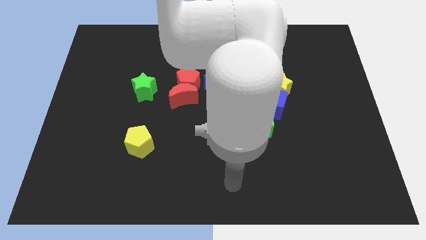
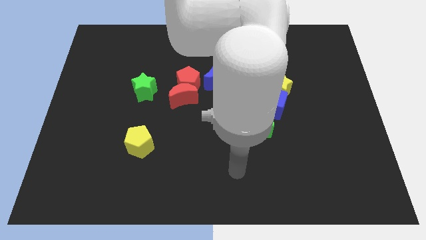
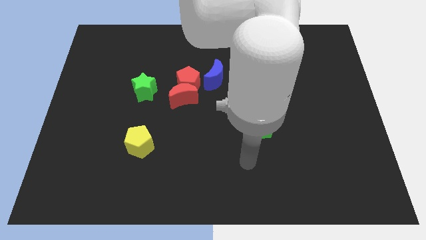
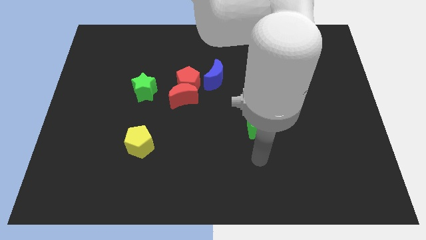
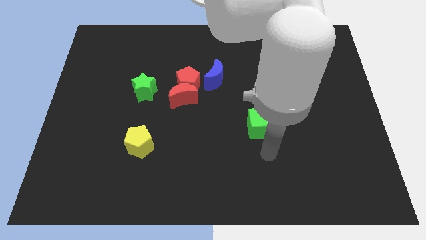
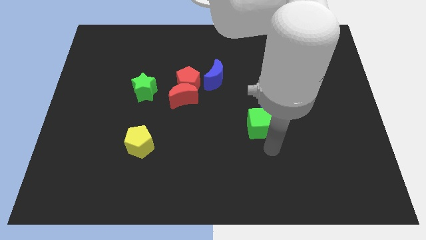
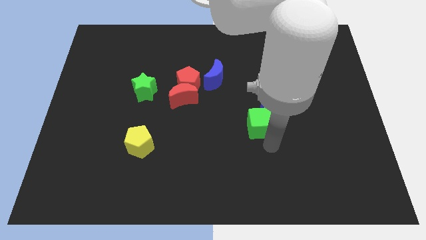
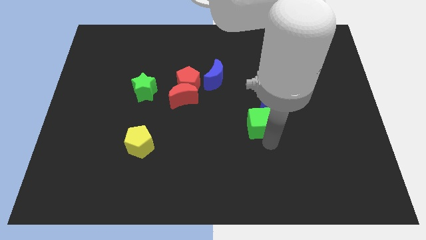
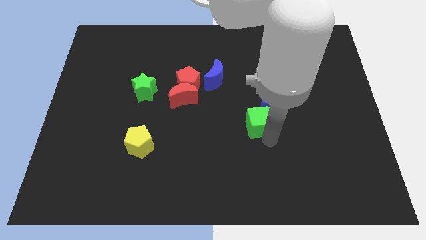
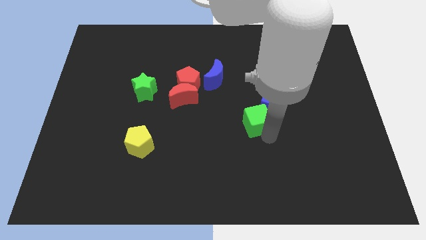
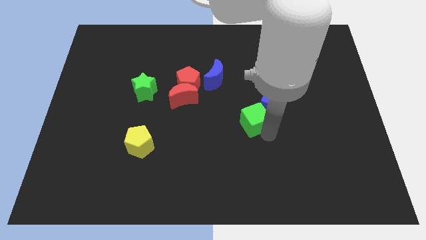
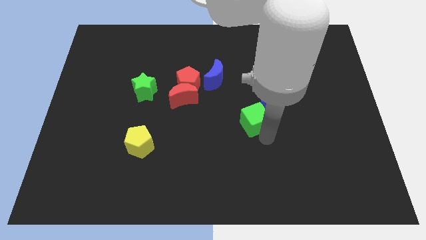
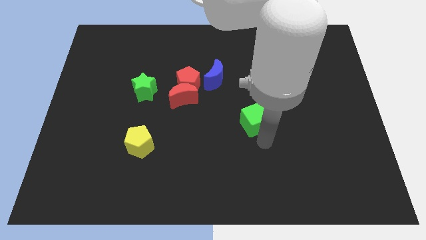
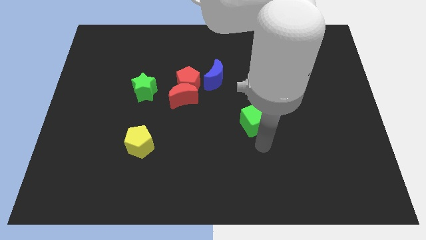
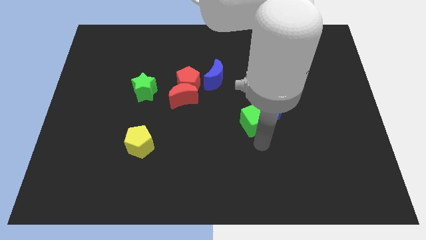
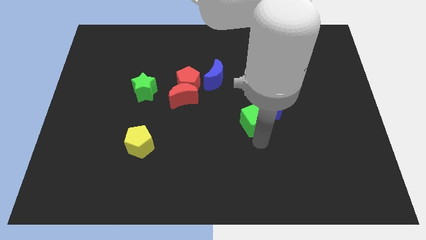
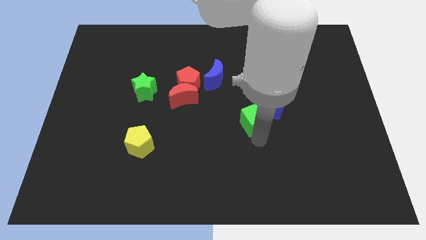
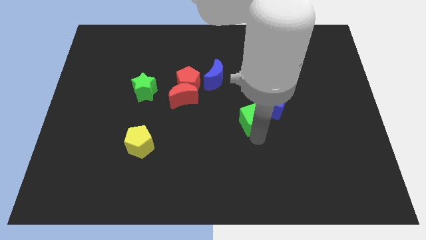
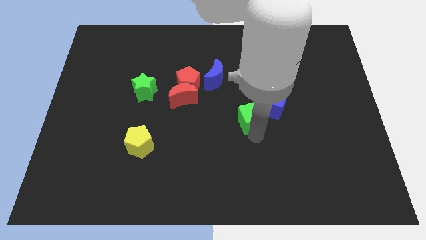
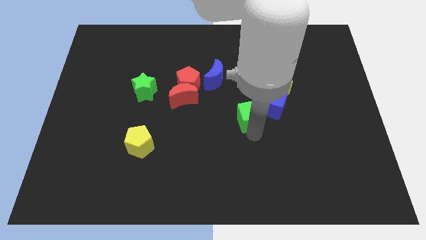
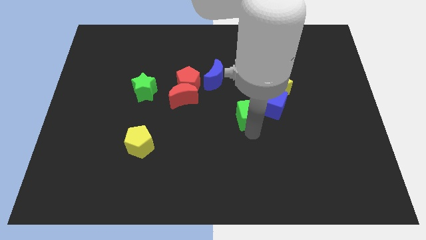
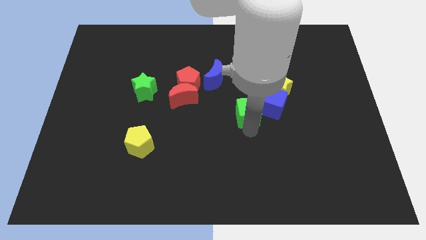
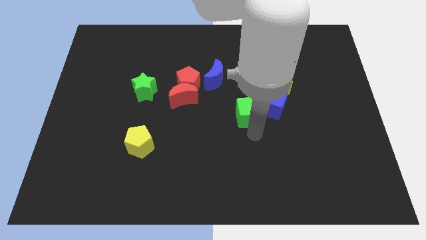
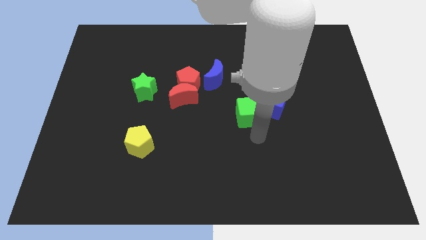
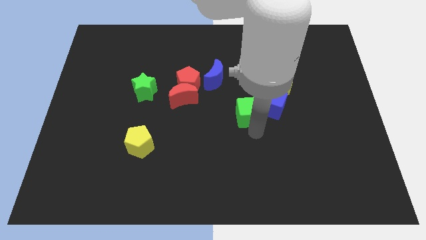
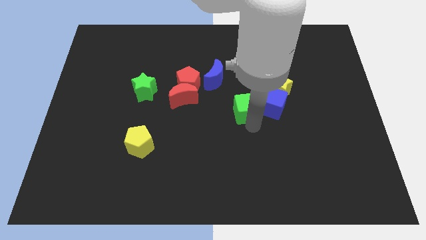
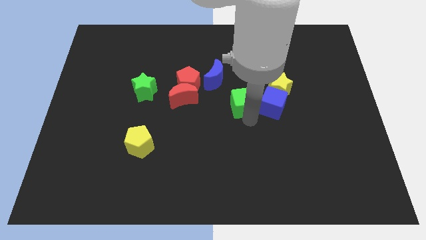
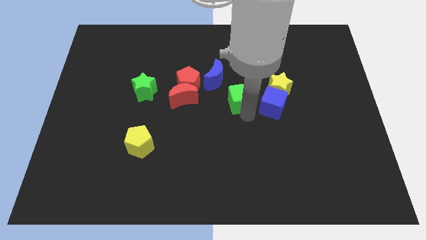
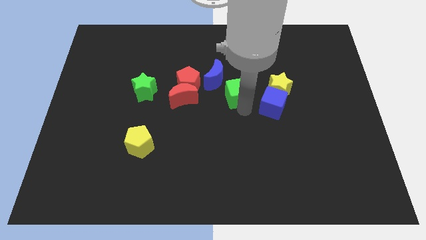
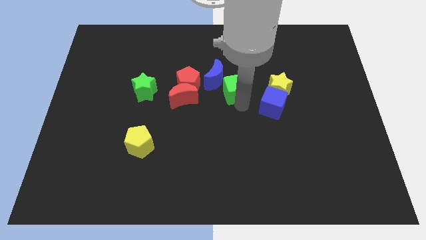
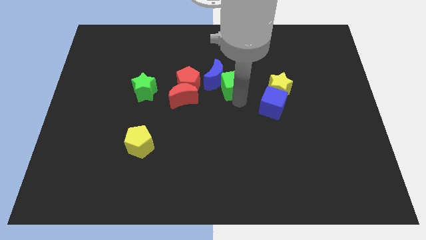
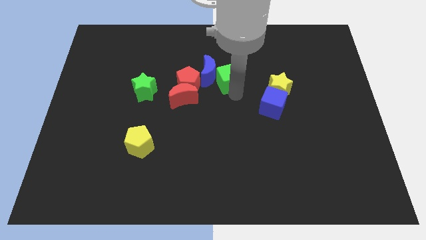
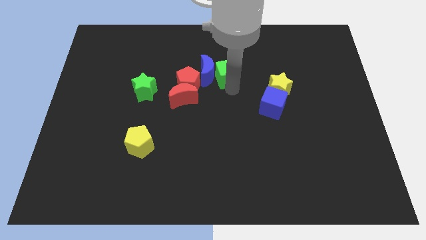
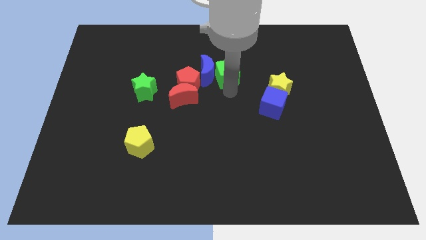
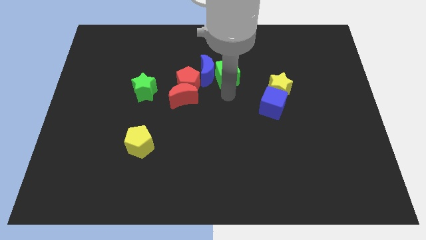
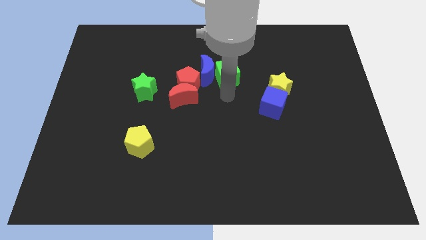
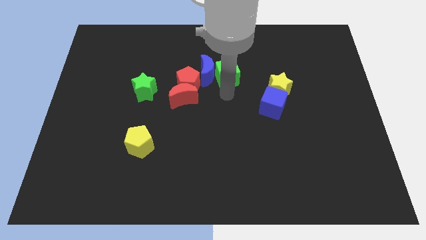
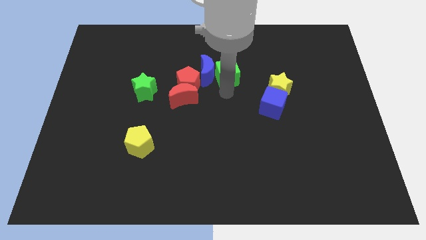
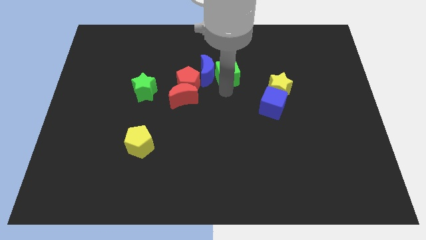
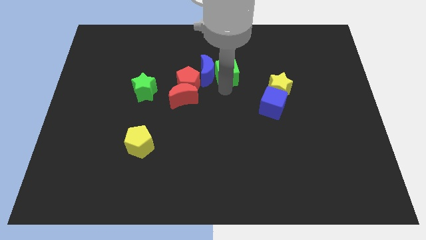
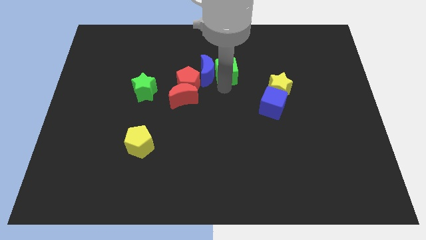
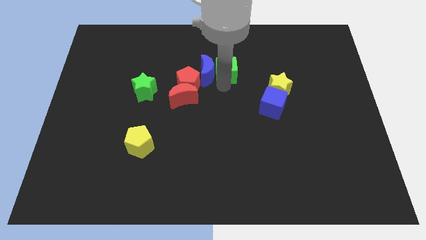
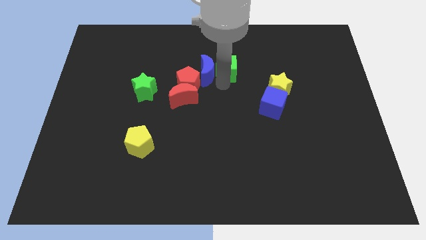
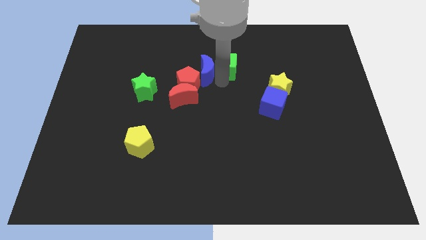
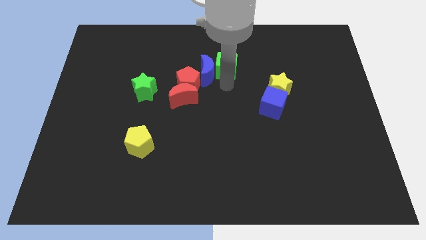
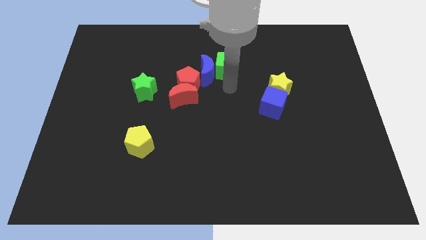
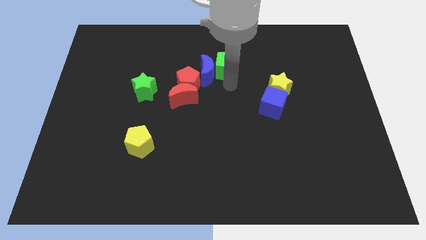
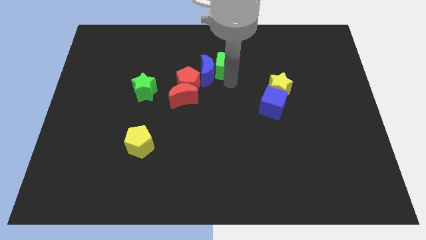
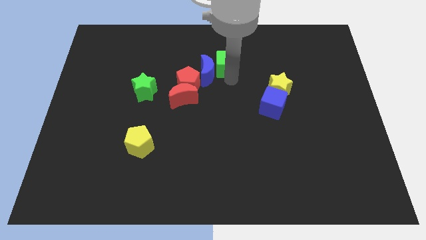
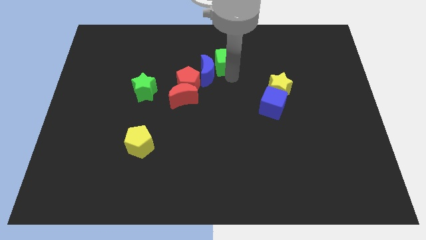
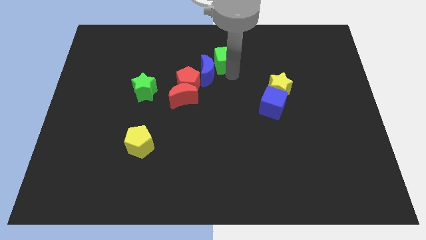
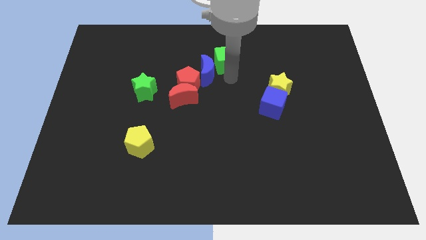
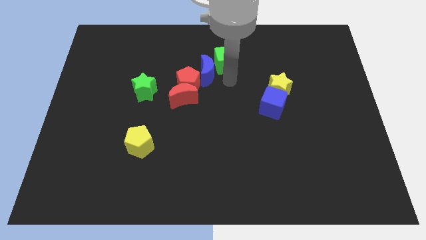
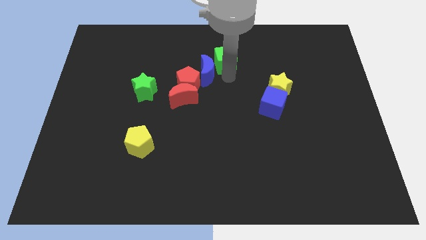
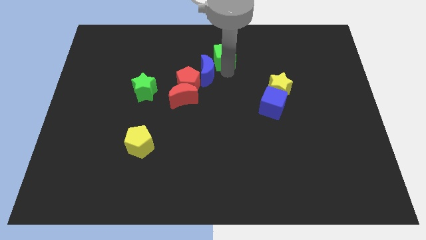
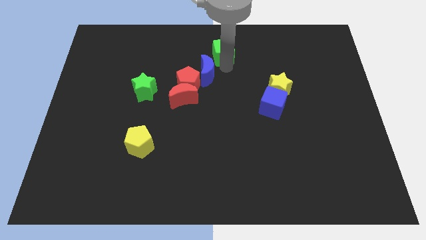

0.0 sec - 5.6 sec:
slide the green cube to the top

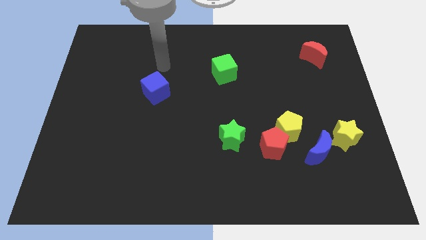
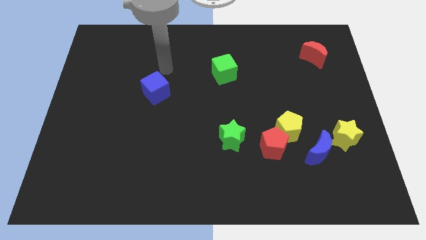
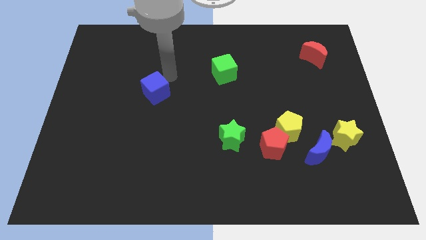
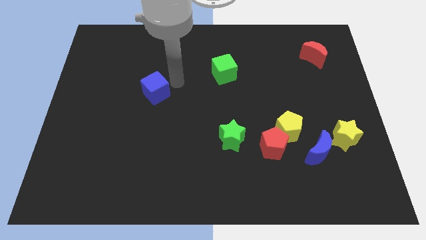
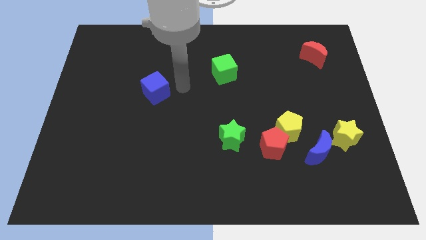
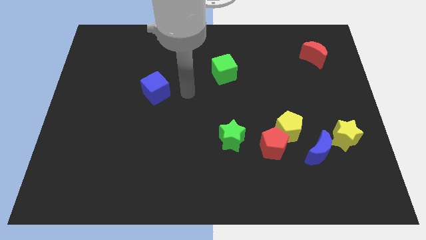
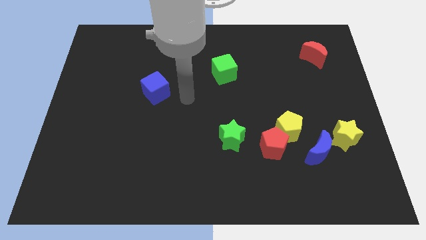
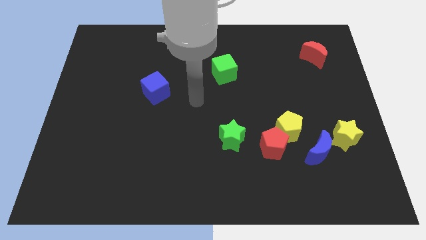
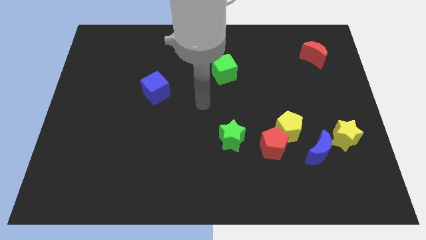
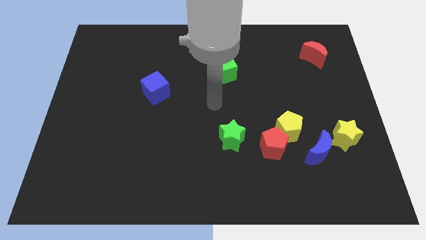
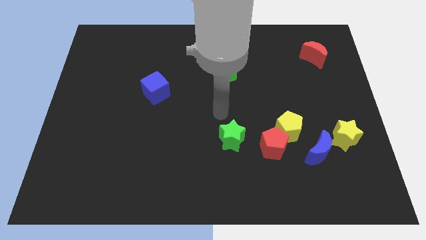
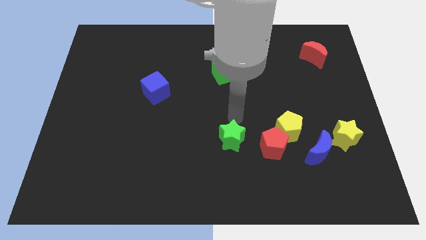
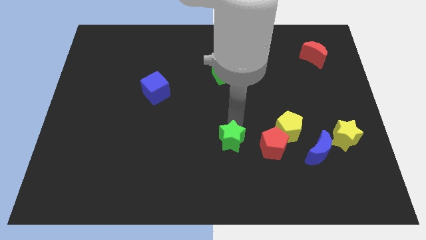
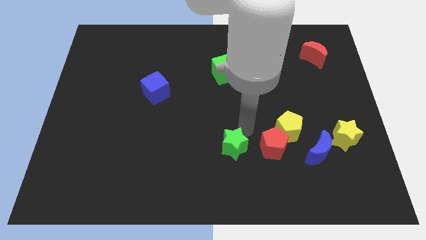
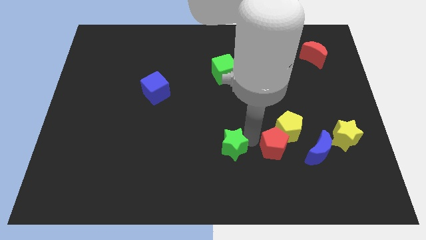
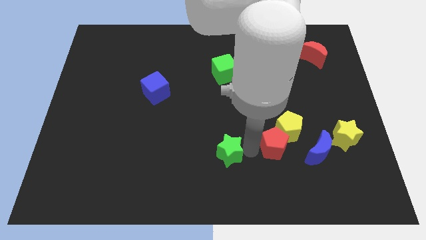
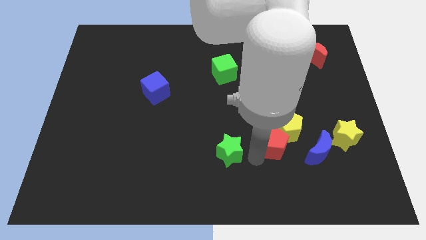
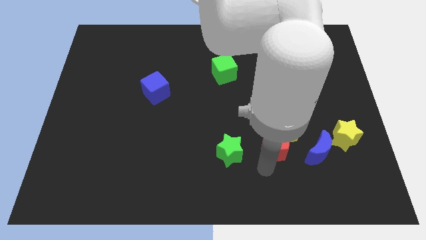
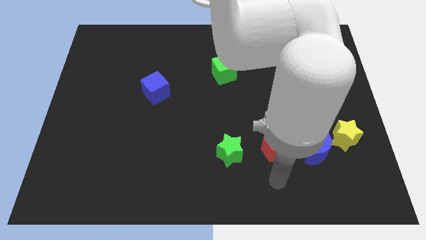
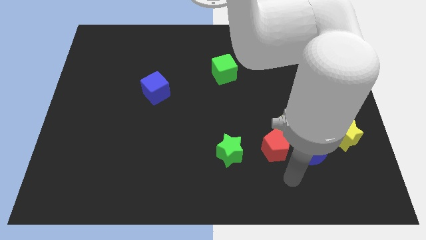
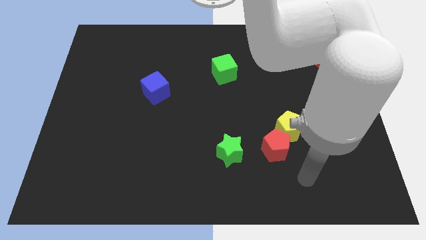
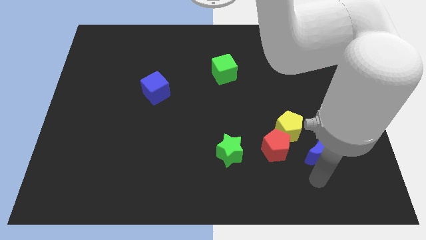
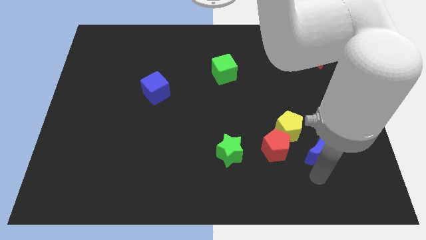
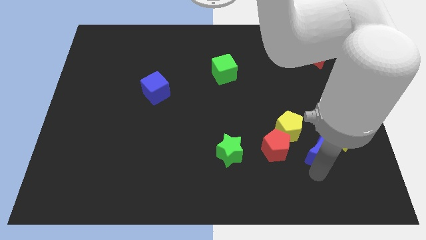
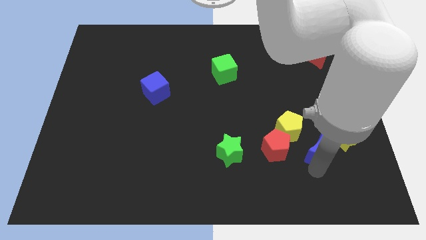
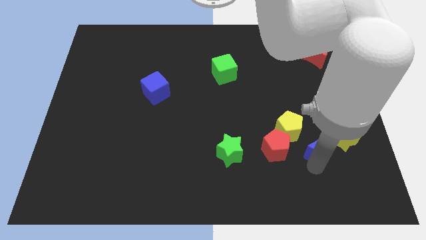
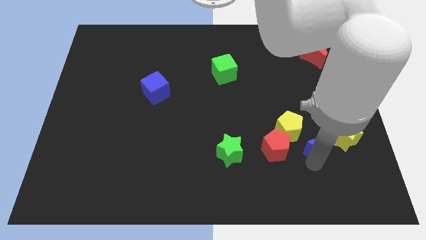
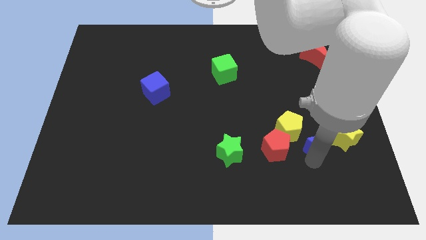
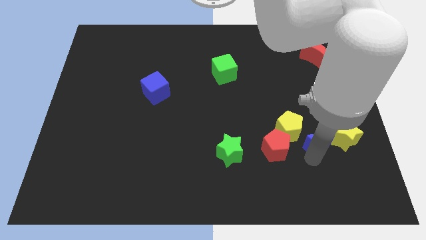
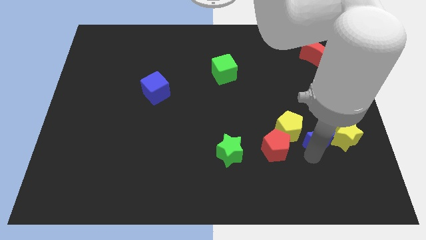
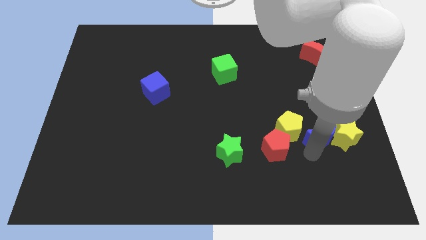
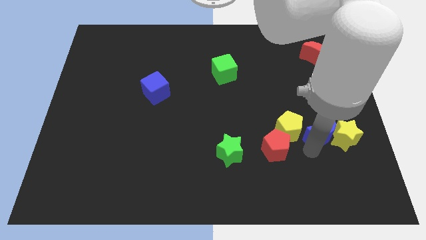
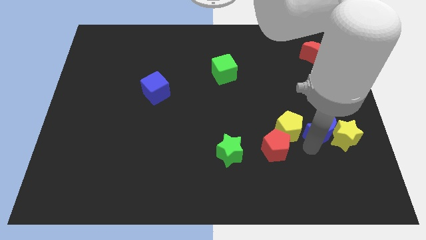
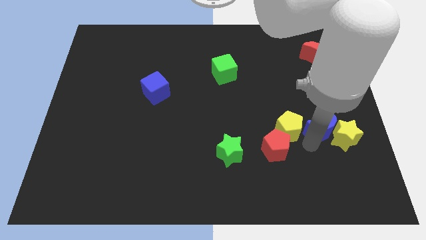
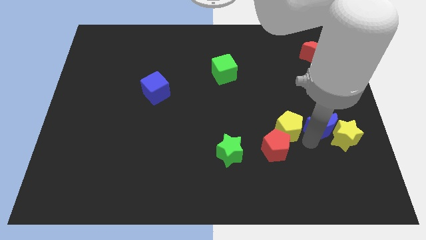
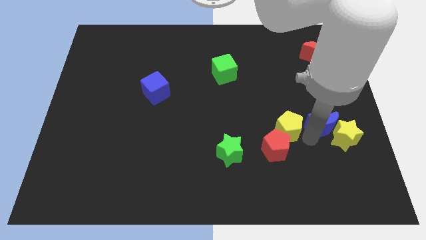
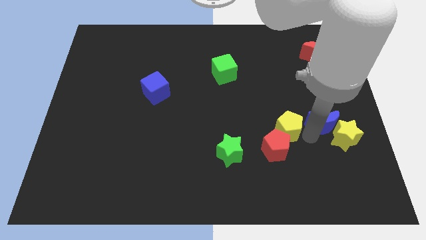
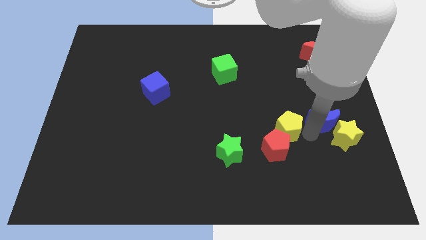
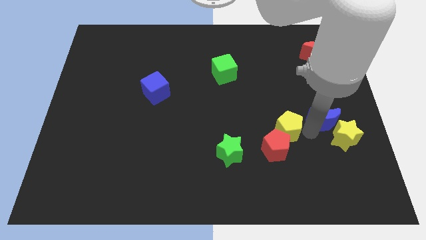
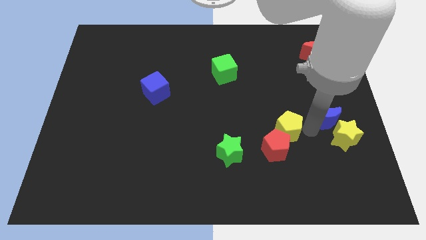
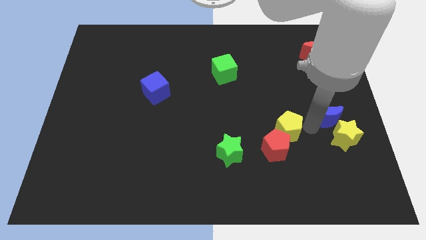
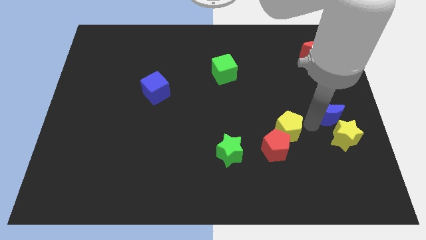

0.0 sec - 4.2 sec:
put the blue moon to the right side
